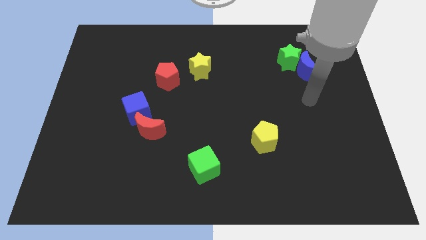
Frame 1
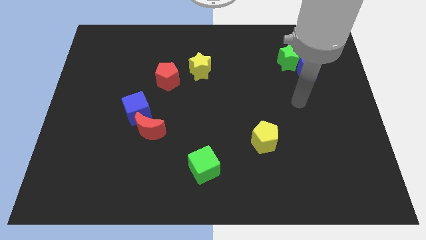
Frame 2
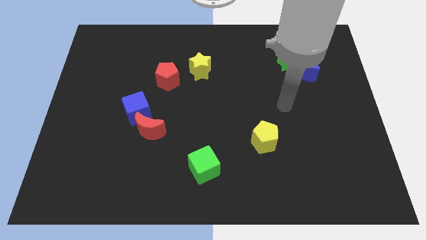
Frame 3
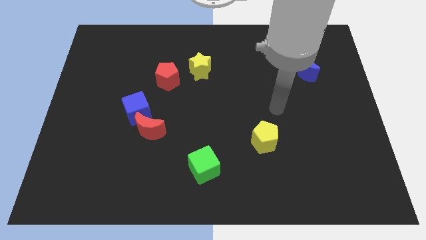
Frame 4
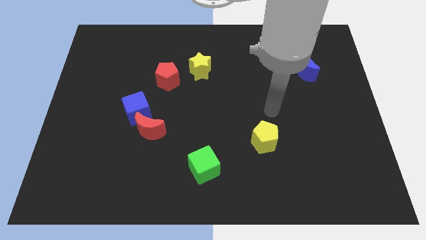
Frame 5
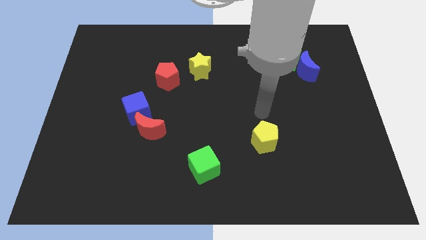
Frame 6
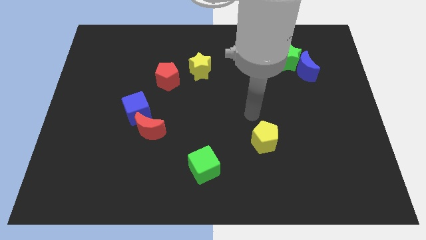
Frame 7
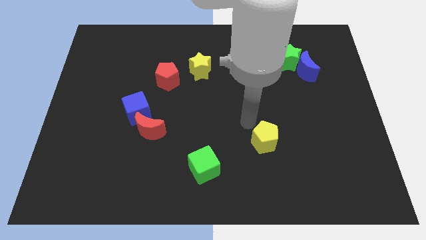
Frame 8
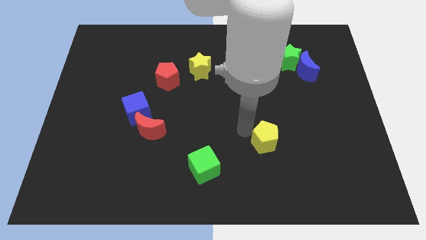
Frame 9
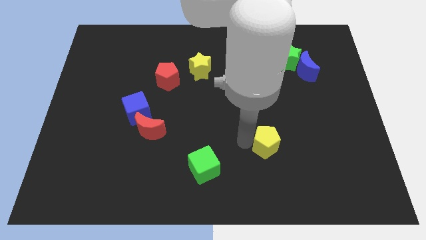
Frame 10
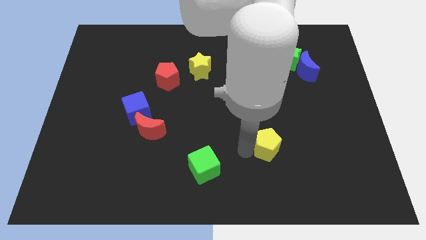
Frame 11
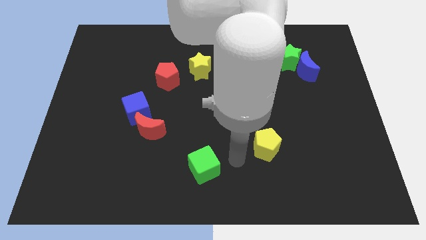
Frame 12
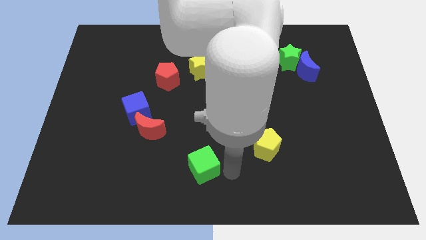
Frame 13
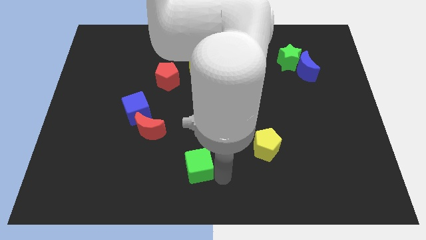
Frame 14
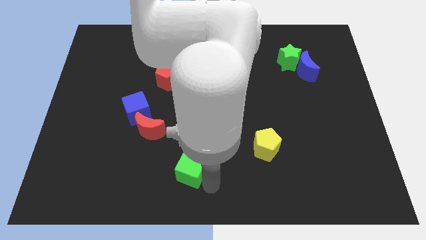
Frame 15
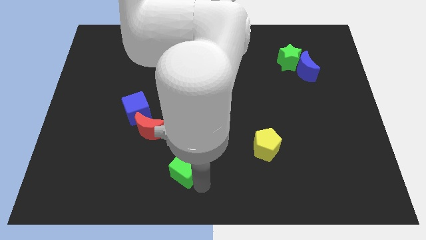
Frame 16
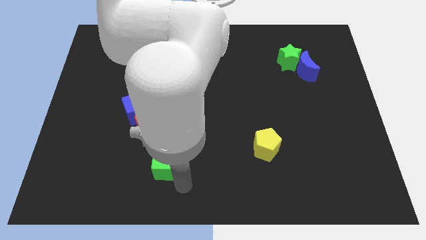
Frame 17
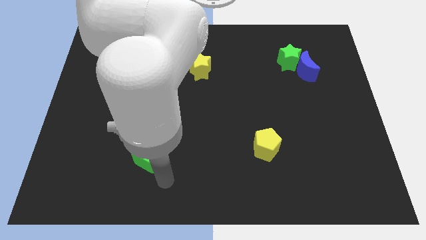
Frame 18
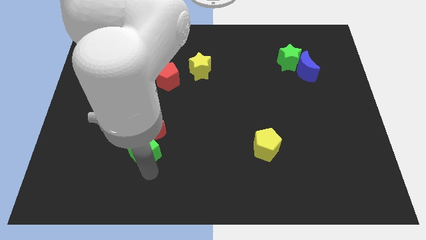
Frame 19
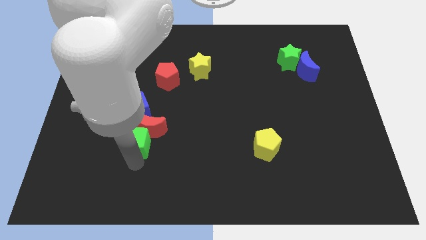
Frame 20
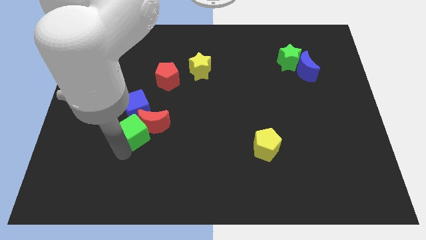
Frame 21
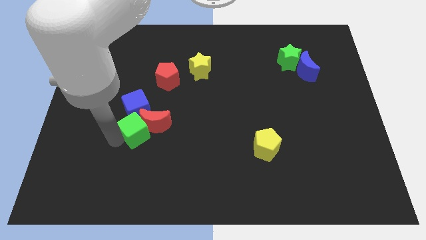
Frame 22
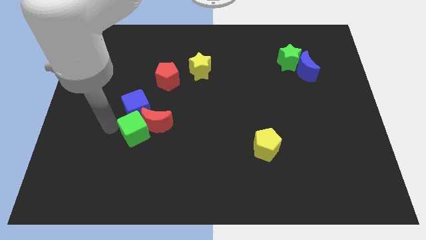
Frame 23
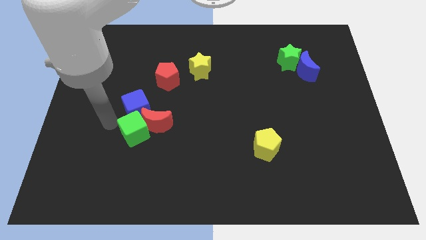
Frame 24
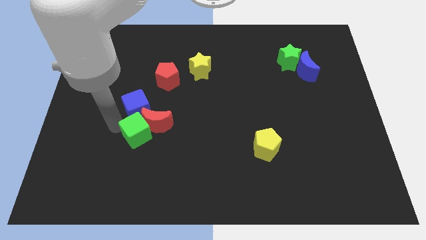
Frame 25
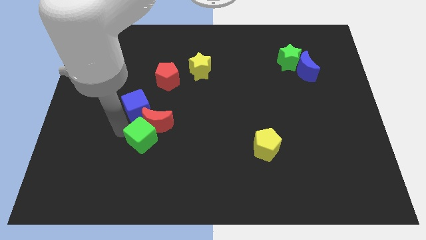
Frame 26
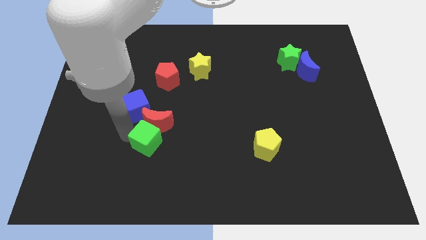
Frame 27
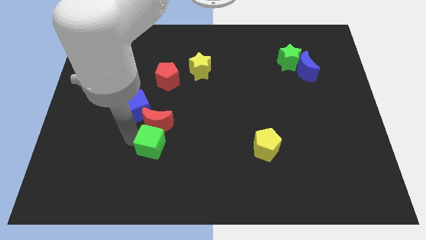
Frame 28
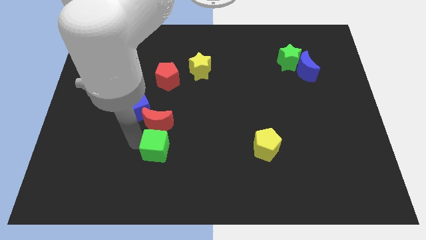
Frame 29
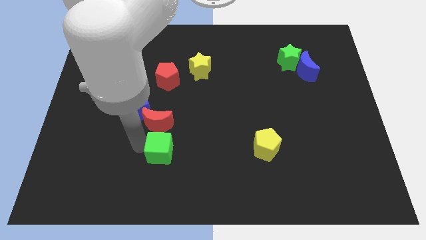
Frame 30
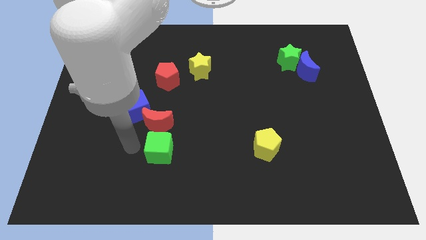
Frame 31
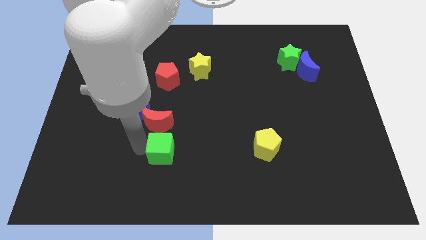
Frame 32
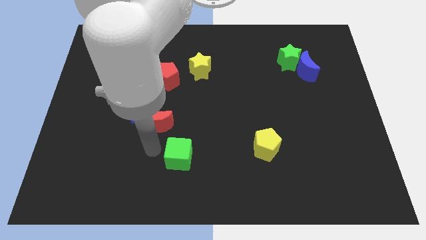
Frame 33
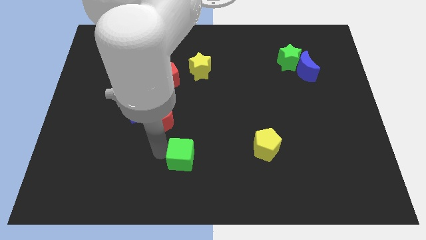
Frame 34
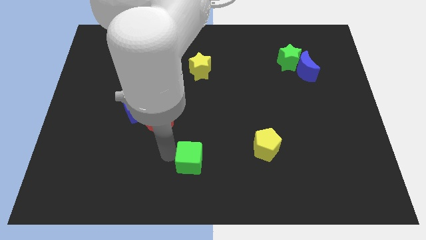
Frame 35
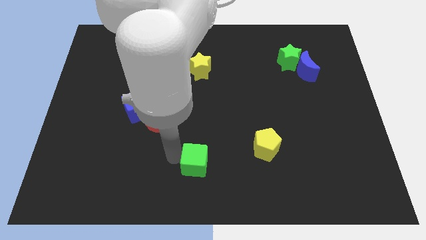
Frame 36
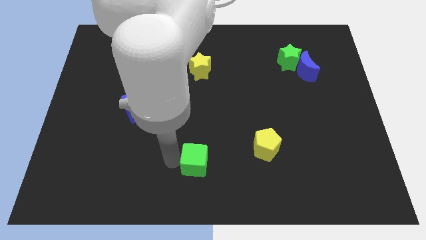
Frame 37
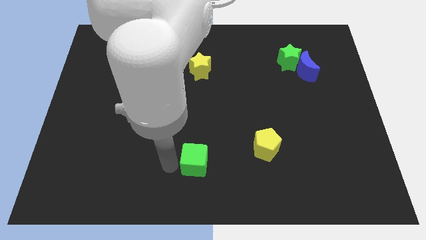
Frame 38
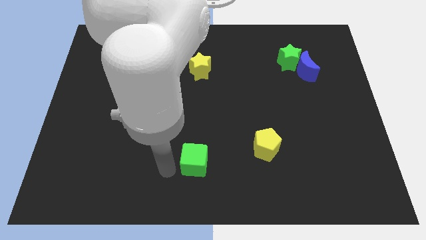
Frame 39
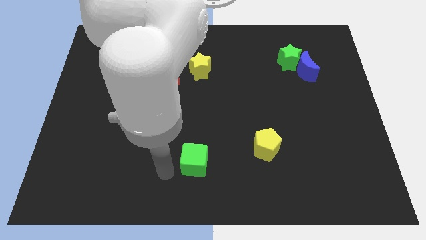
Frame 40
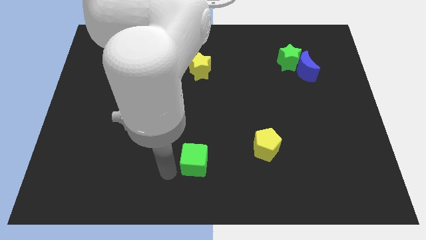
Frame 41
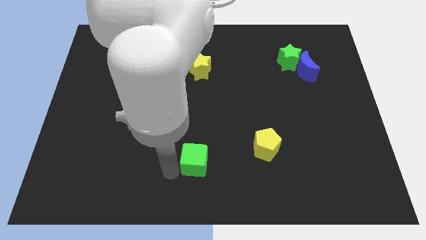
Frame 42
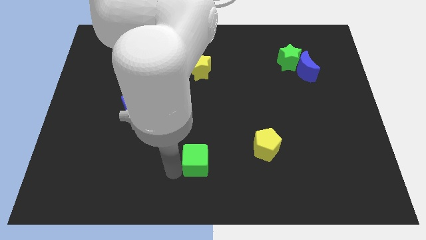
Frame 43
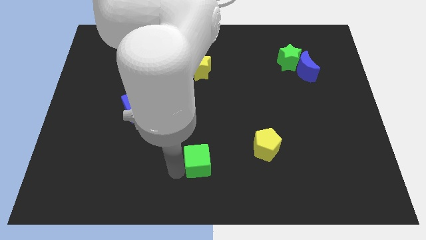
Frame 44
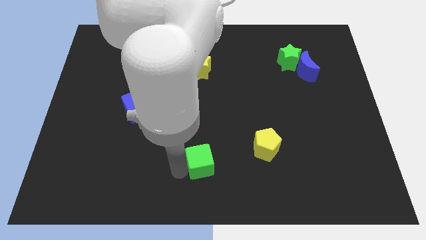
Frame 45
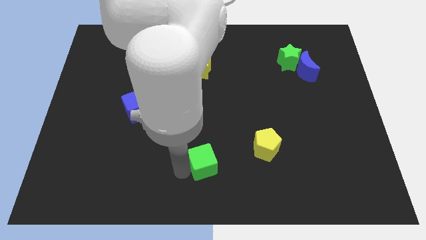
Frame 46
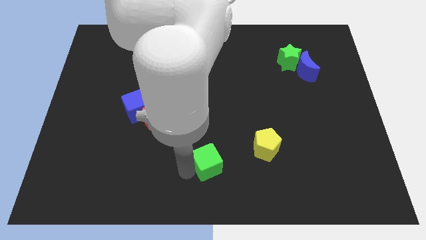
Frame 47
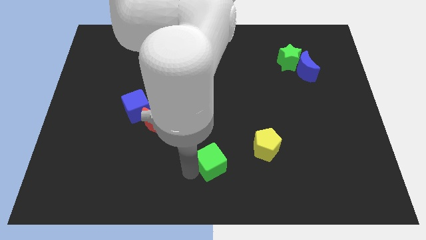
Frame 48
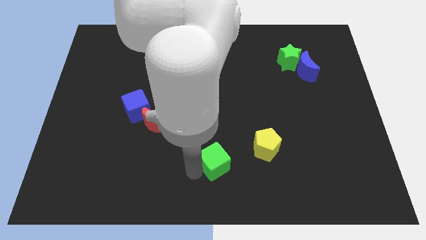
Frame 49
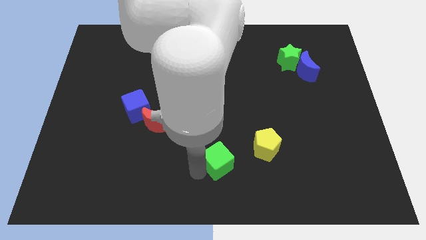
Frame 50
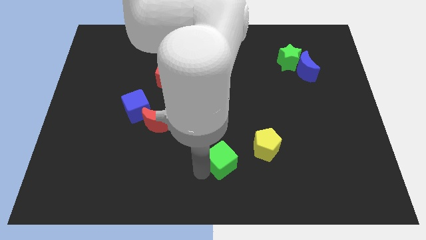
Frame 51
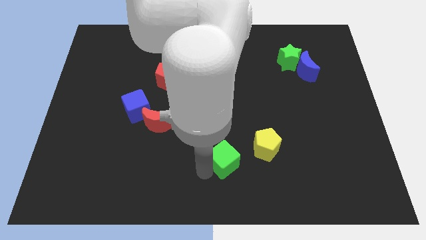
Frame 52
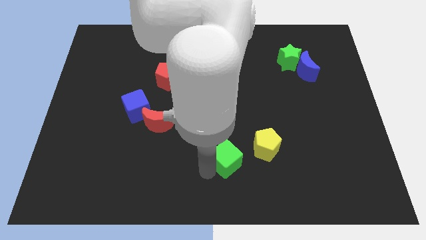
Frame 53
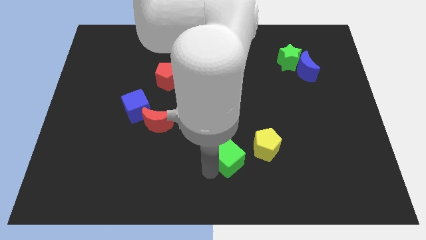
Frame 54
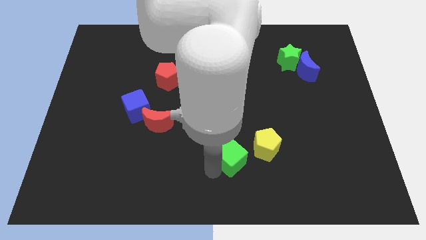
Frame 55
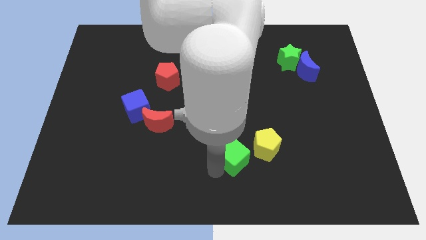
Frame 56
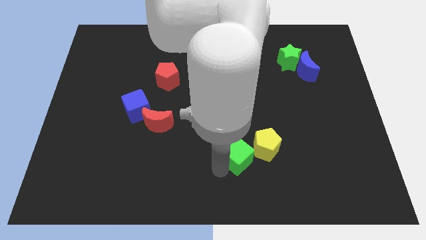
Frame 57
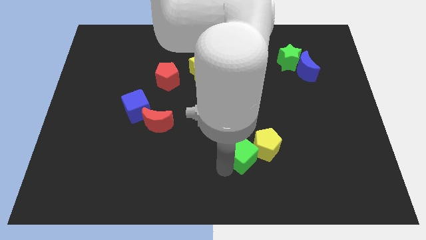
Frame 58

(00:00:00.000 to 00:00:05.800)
slide the green cube upwards and right somewhat

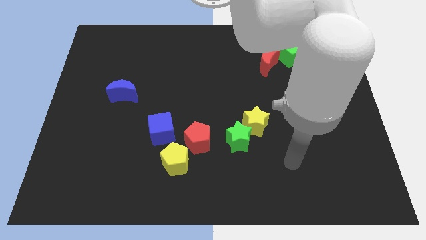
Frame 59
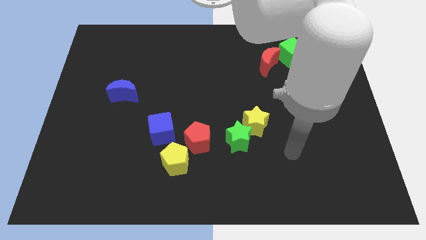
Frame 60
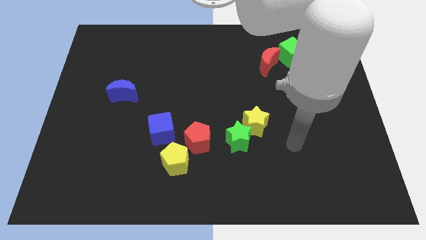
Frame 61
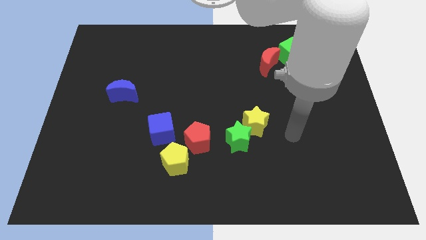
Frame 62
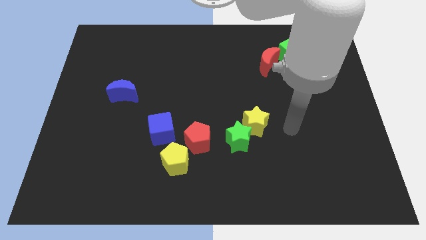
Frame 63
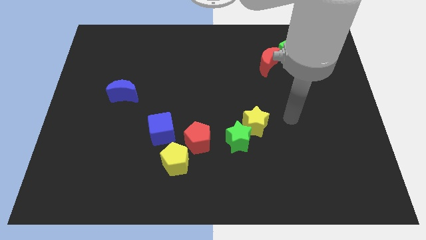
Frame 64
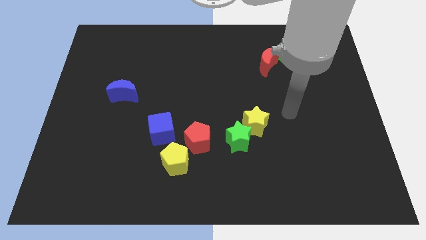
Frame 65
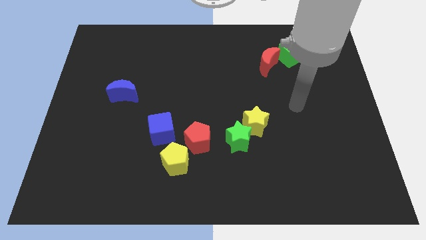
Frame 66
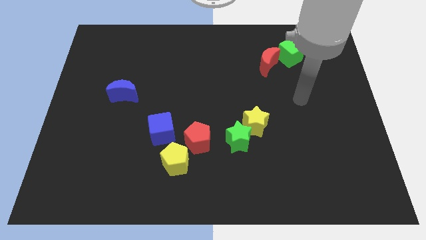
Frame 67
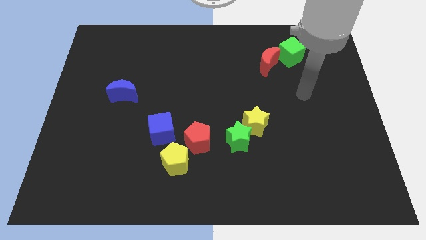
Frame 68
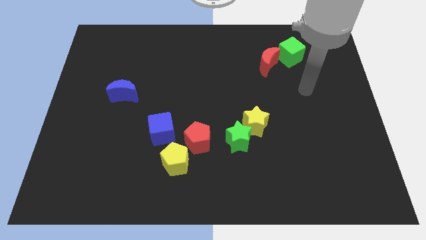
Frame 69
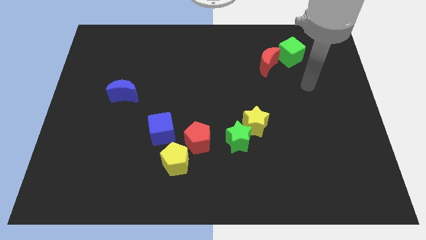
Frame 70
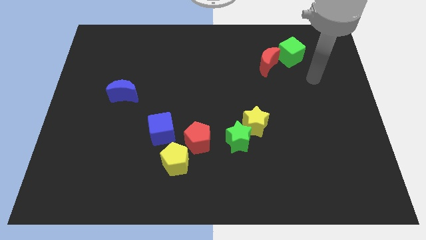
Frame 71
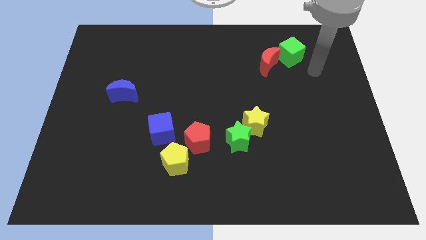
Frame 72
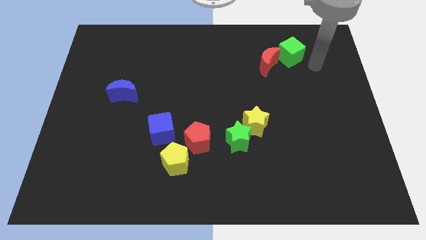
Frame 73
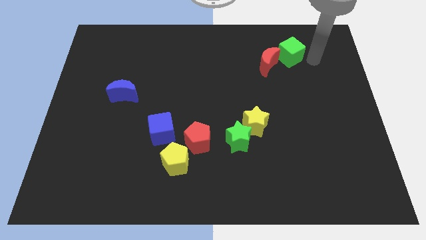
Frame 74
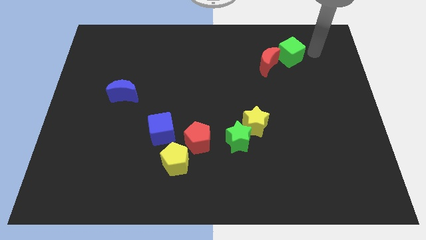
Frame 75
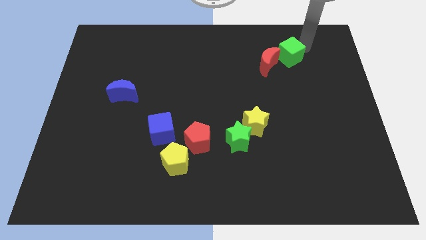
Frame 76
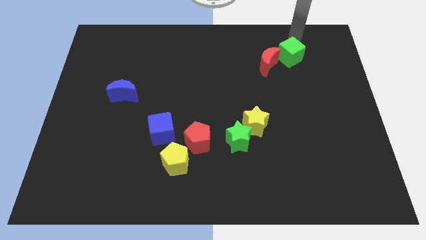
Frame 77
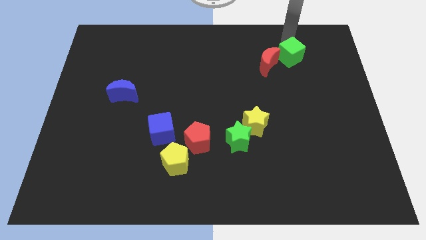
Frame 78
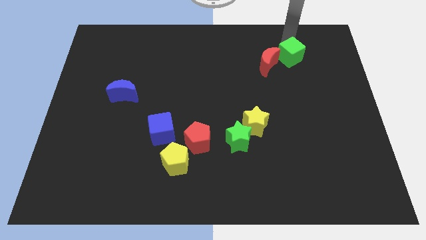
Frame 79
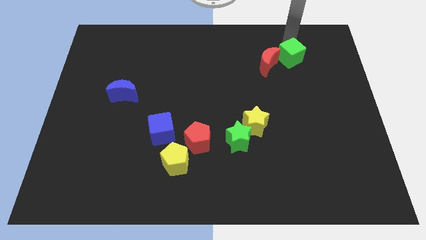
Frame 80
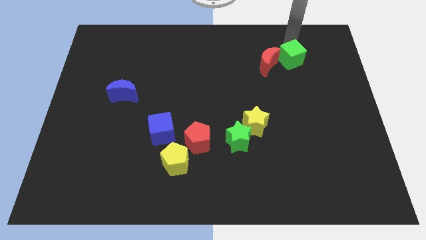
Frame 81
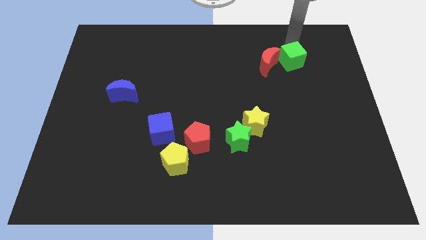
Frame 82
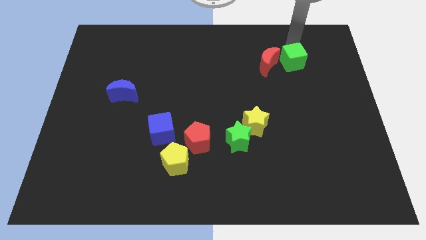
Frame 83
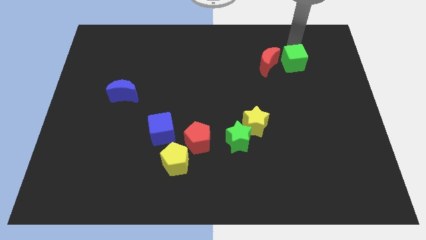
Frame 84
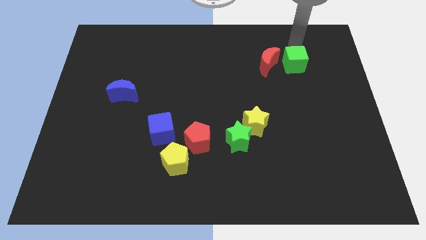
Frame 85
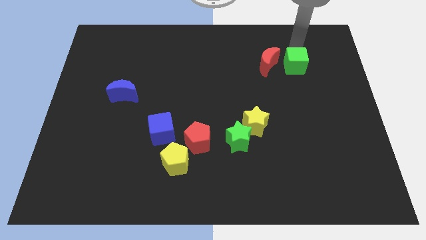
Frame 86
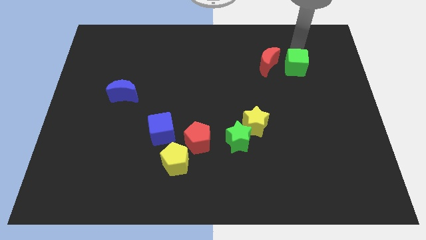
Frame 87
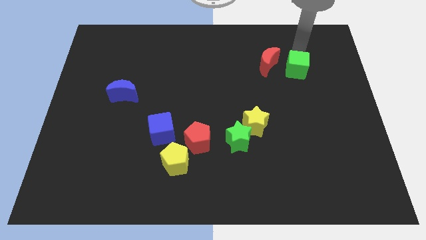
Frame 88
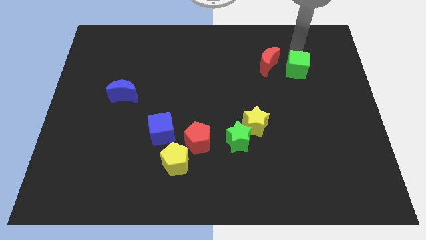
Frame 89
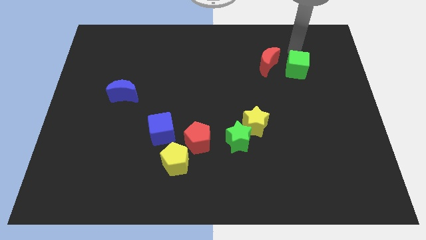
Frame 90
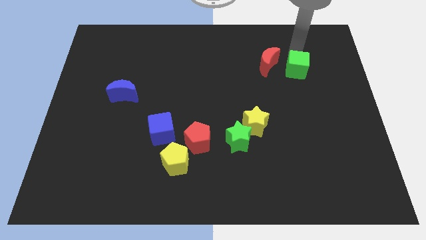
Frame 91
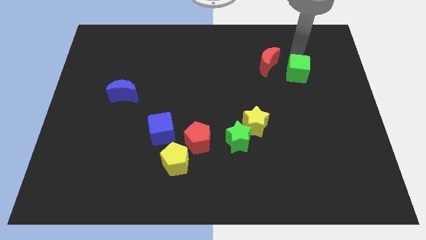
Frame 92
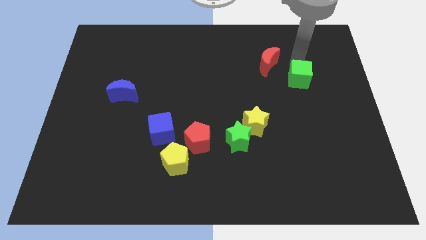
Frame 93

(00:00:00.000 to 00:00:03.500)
slightly slide the green cube downwards
